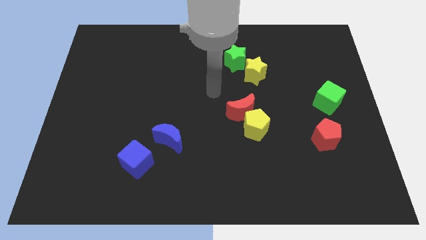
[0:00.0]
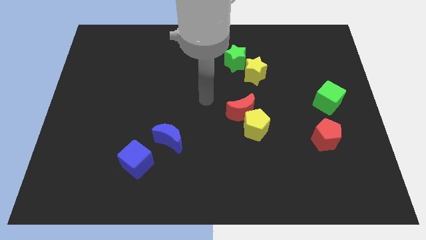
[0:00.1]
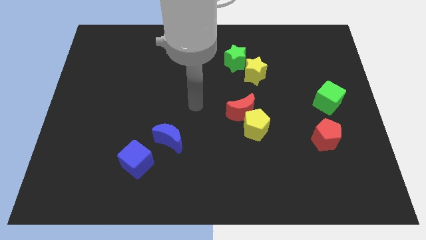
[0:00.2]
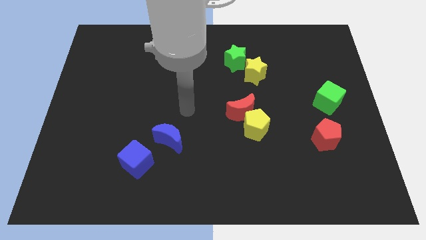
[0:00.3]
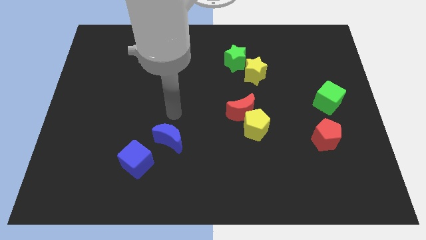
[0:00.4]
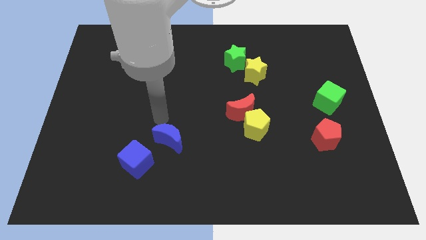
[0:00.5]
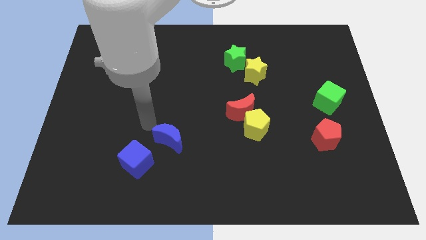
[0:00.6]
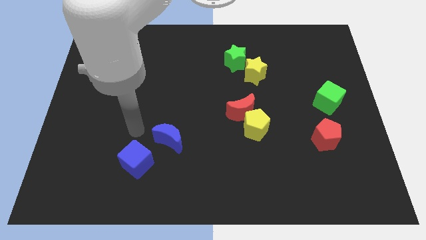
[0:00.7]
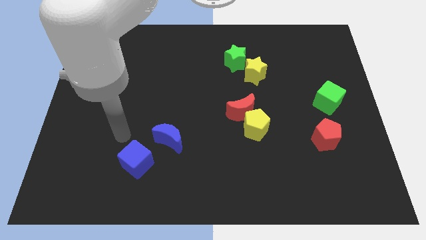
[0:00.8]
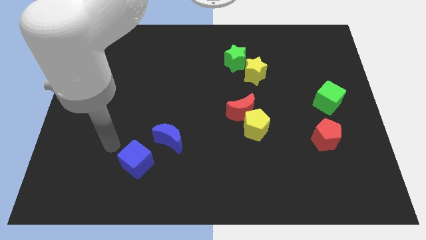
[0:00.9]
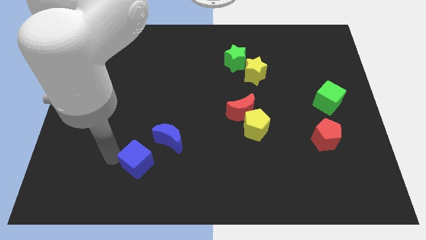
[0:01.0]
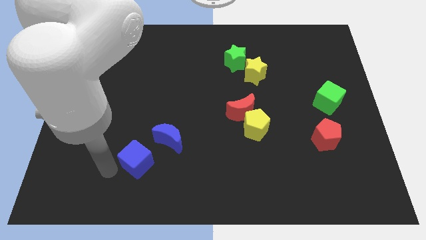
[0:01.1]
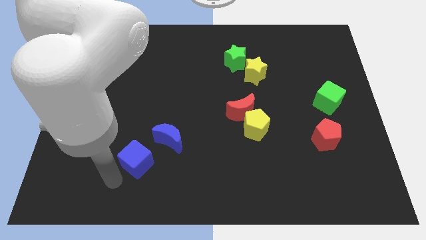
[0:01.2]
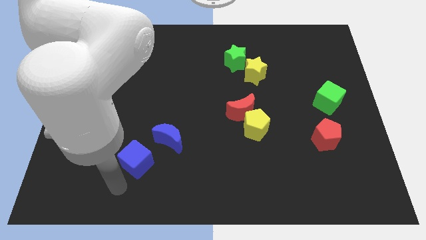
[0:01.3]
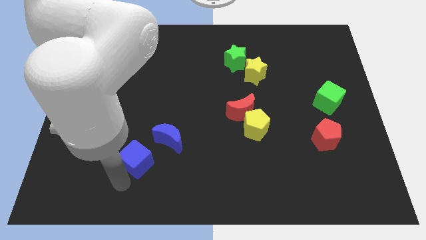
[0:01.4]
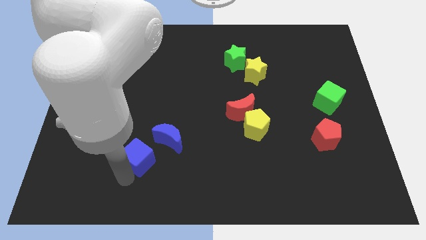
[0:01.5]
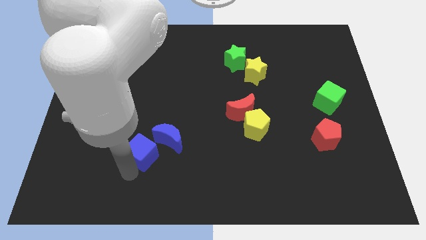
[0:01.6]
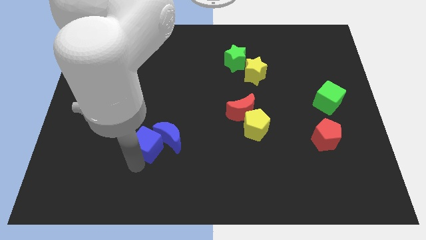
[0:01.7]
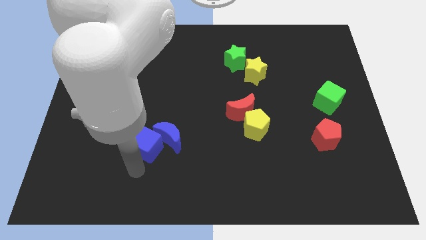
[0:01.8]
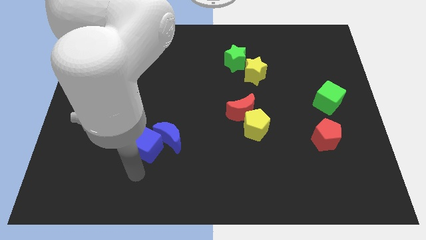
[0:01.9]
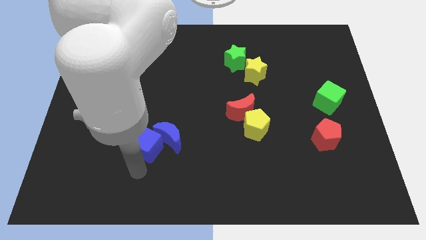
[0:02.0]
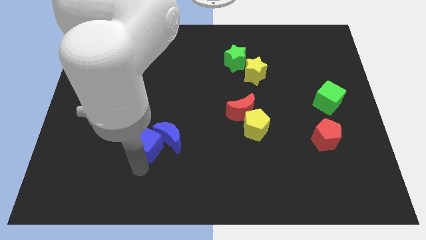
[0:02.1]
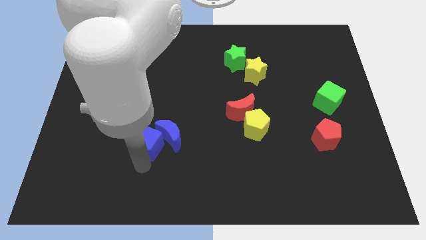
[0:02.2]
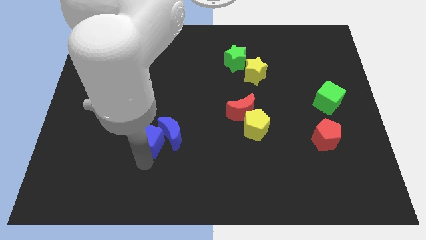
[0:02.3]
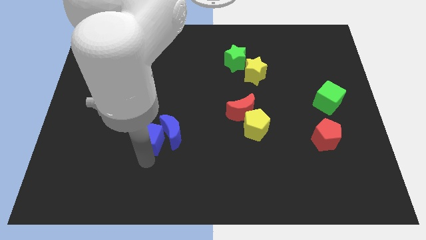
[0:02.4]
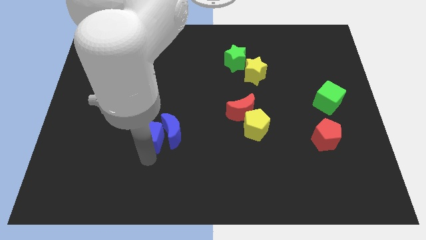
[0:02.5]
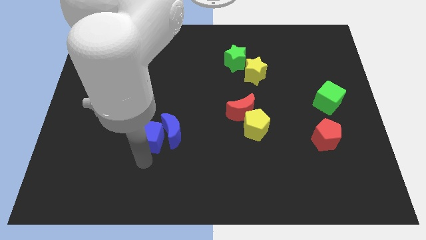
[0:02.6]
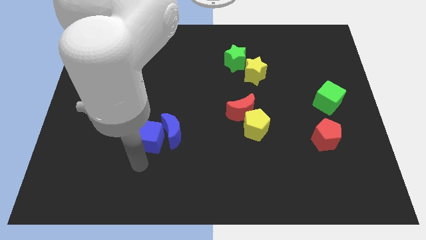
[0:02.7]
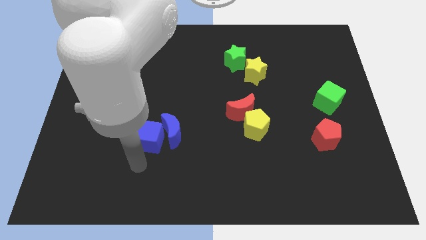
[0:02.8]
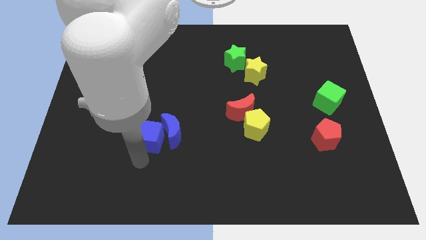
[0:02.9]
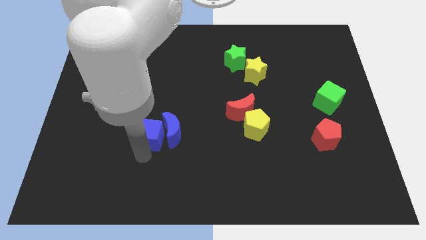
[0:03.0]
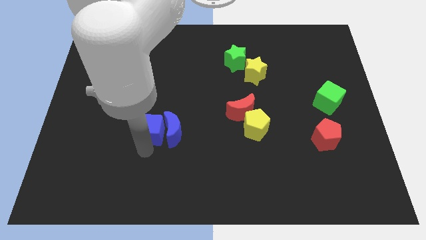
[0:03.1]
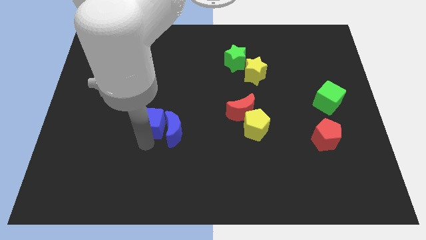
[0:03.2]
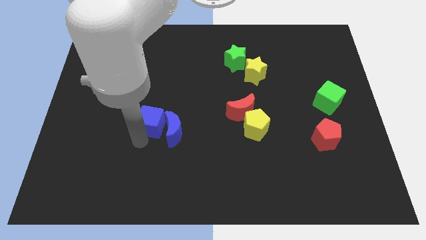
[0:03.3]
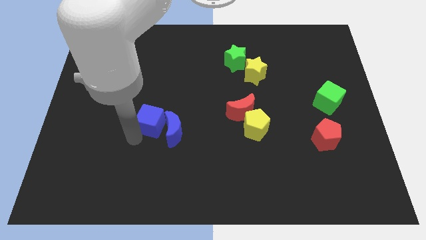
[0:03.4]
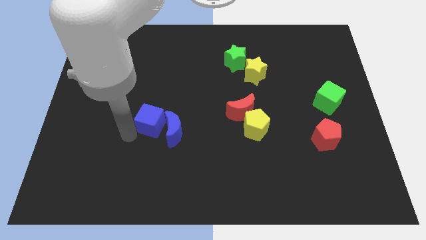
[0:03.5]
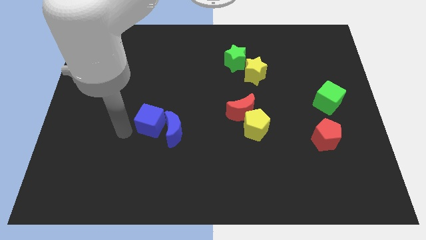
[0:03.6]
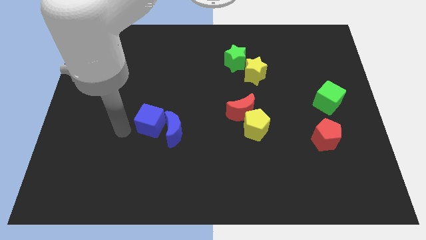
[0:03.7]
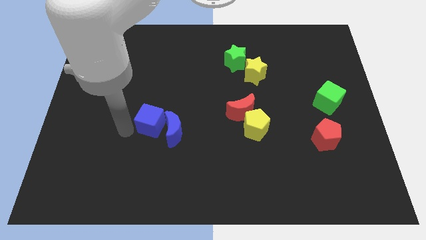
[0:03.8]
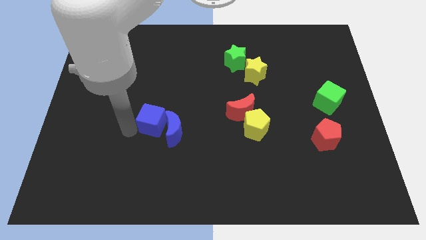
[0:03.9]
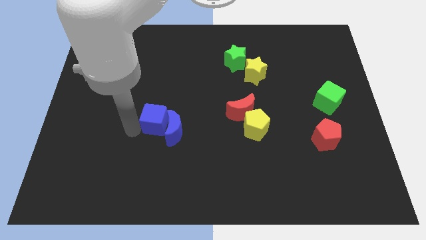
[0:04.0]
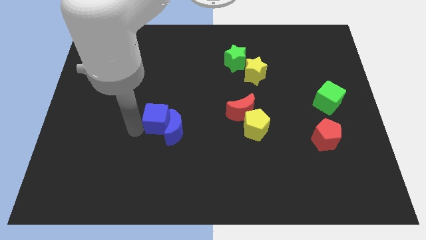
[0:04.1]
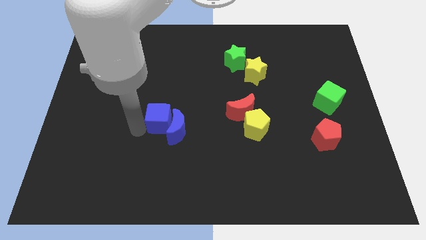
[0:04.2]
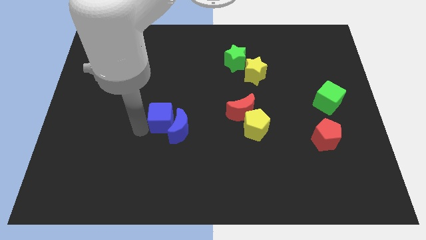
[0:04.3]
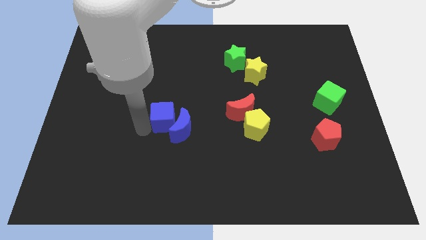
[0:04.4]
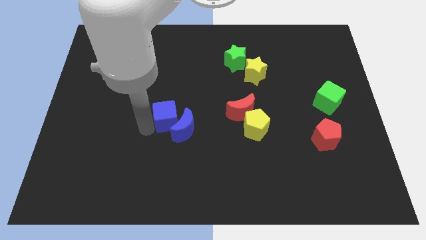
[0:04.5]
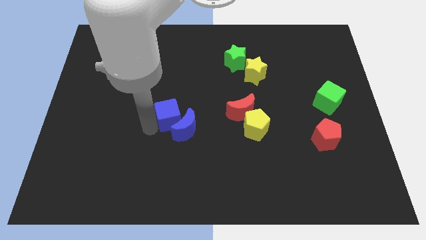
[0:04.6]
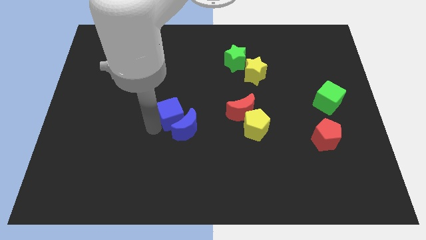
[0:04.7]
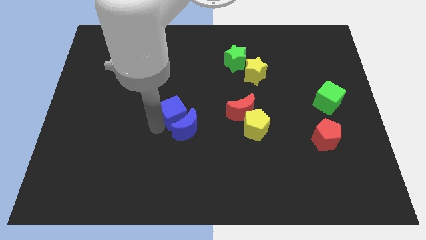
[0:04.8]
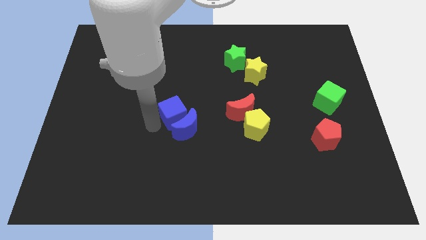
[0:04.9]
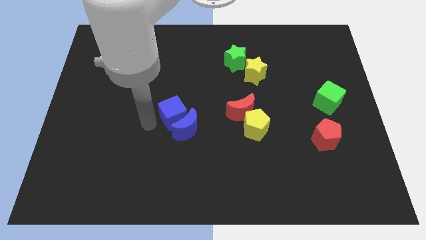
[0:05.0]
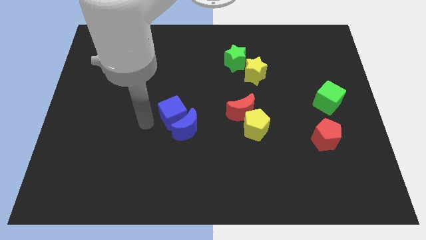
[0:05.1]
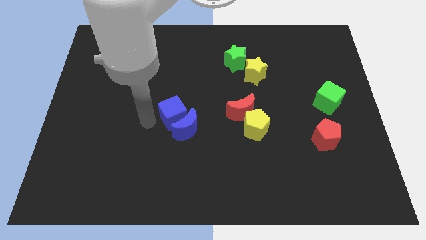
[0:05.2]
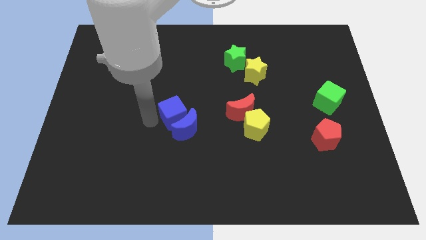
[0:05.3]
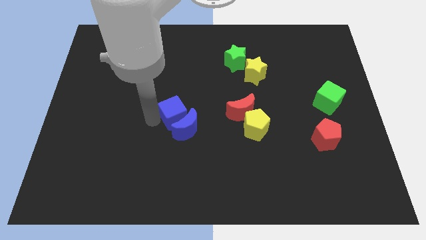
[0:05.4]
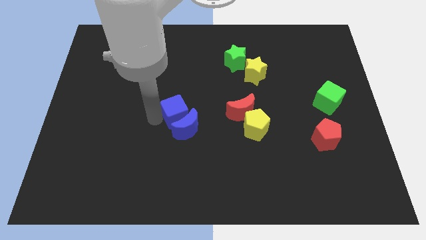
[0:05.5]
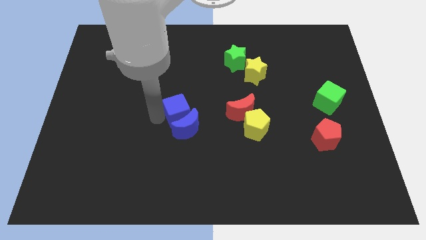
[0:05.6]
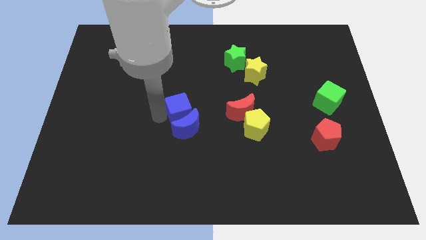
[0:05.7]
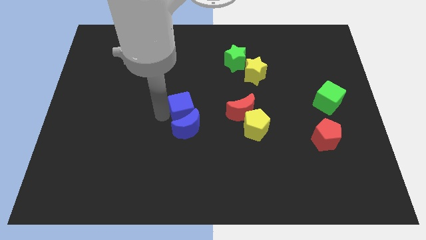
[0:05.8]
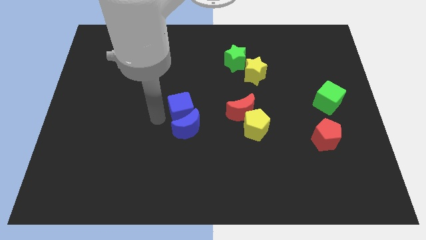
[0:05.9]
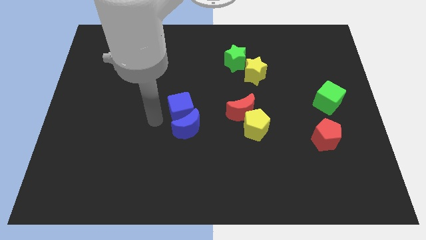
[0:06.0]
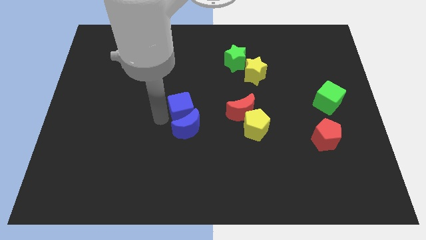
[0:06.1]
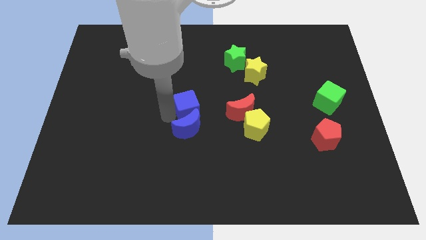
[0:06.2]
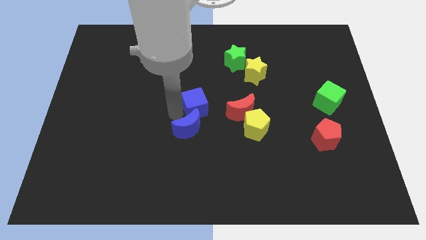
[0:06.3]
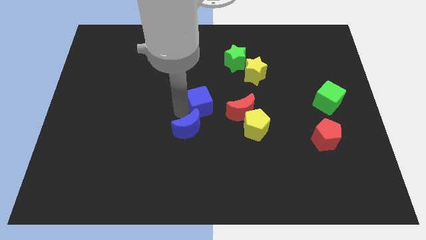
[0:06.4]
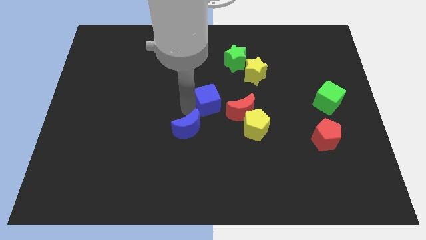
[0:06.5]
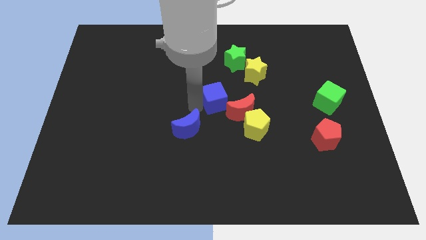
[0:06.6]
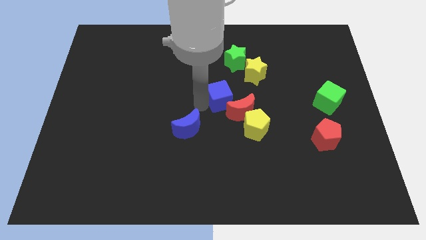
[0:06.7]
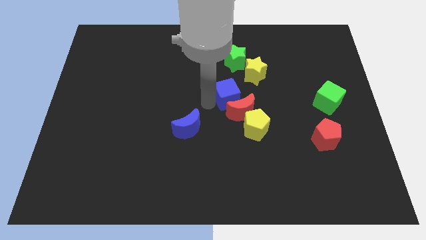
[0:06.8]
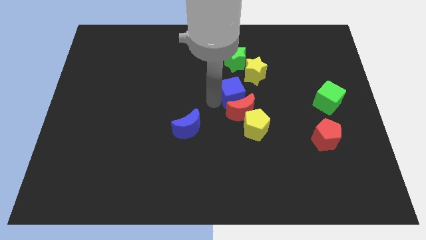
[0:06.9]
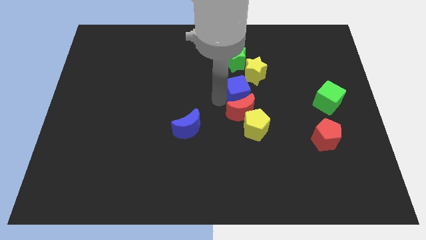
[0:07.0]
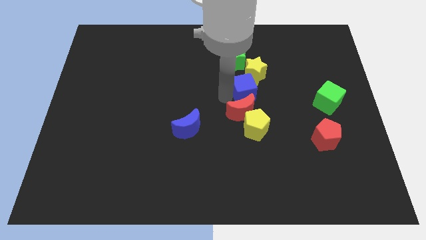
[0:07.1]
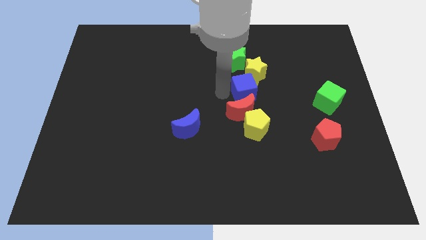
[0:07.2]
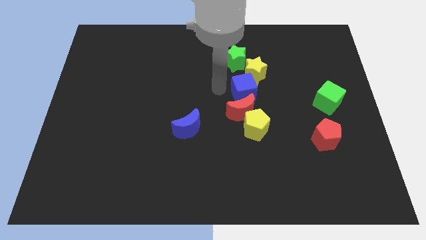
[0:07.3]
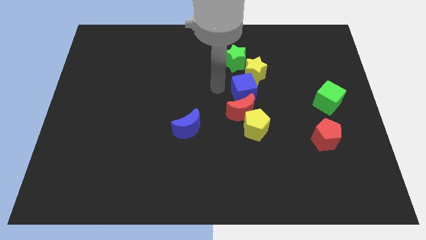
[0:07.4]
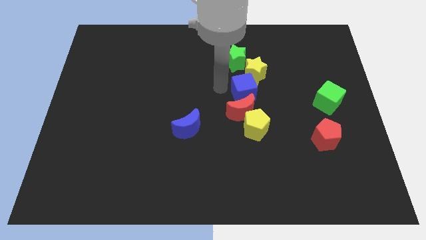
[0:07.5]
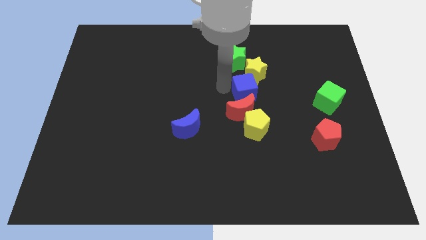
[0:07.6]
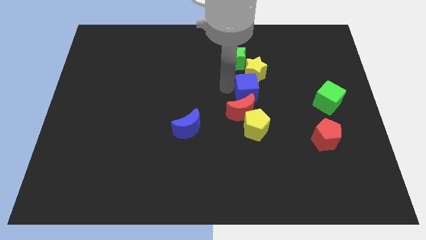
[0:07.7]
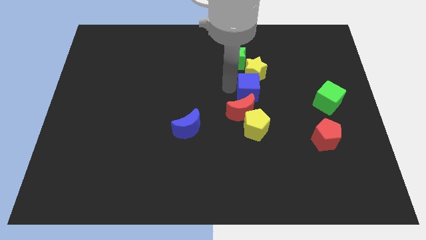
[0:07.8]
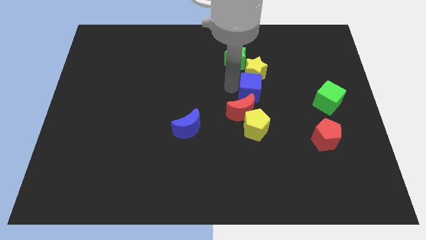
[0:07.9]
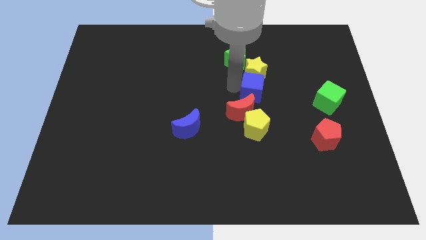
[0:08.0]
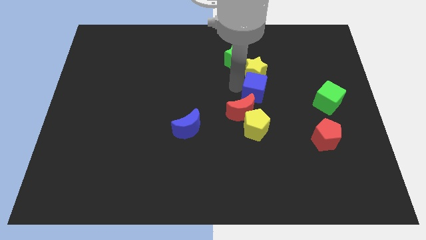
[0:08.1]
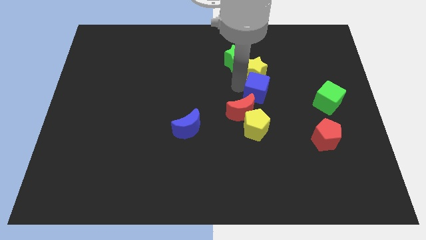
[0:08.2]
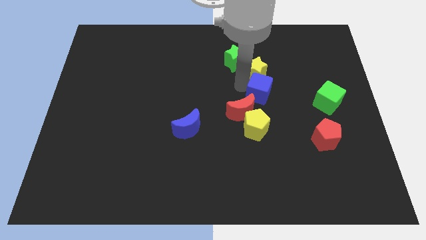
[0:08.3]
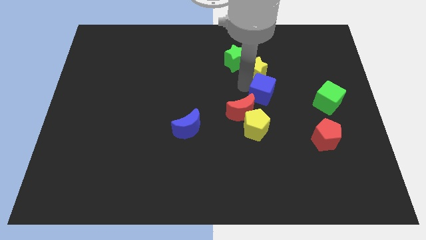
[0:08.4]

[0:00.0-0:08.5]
move the blue cube just left of the green cube
